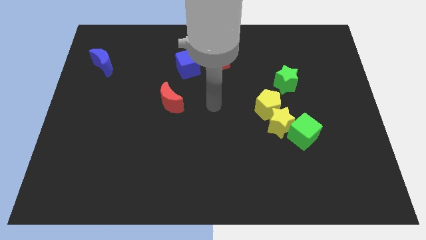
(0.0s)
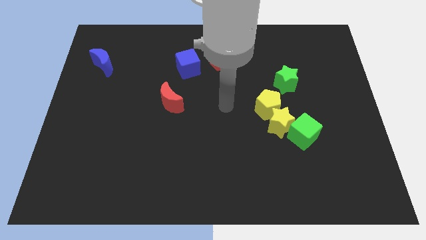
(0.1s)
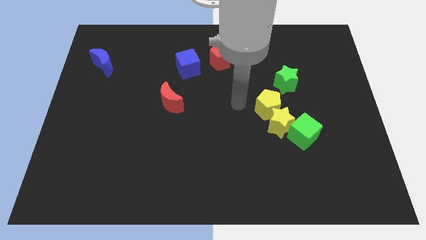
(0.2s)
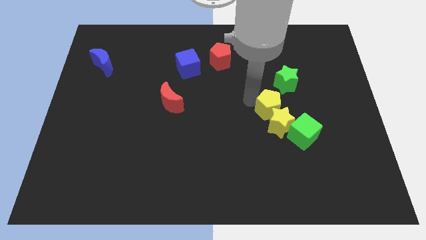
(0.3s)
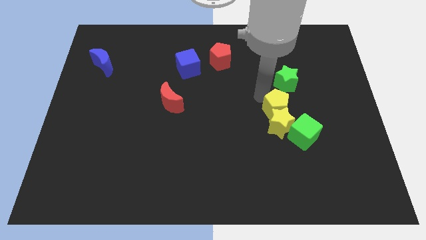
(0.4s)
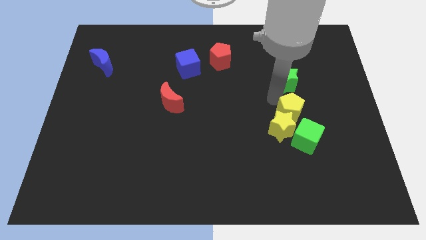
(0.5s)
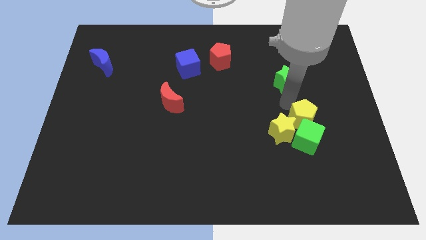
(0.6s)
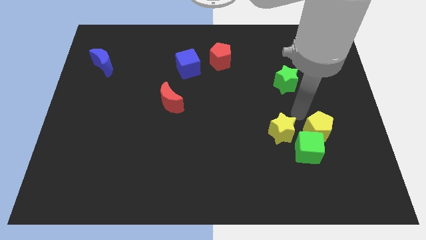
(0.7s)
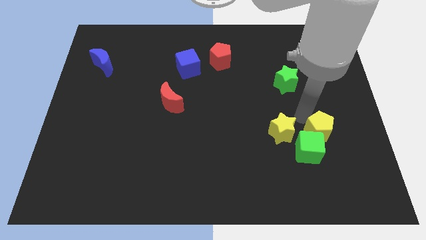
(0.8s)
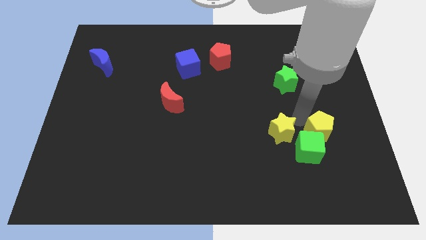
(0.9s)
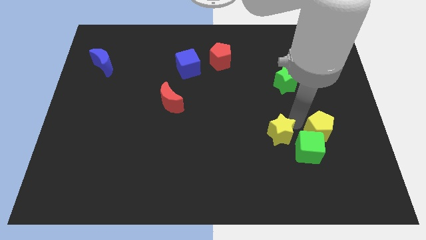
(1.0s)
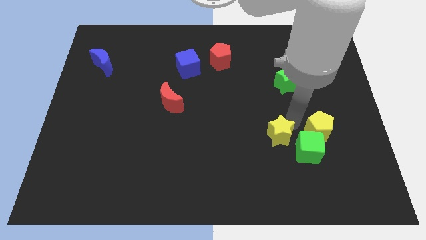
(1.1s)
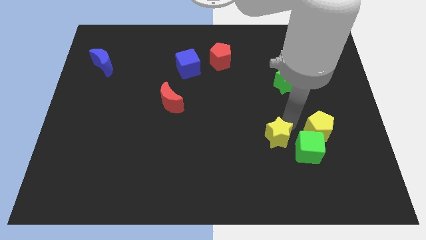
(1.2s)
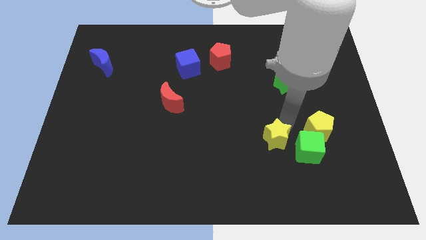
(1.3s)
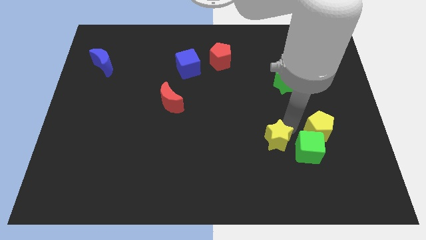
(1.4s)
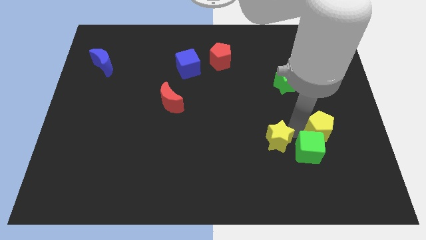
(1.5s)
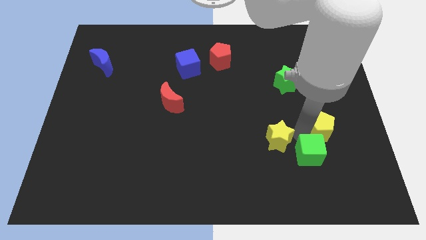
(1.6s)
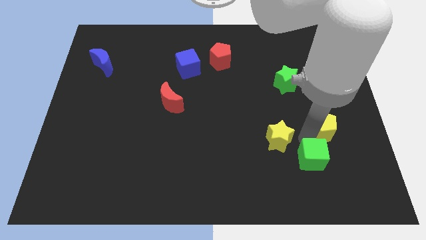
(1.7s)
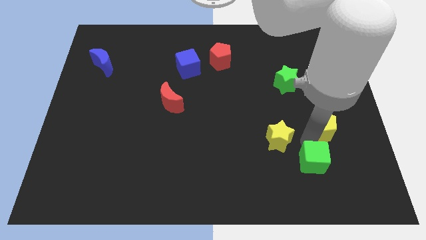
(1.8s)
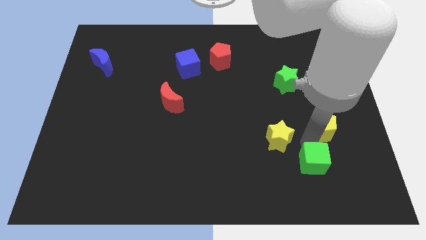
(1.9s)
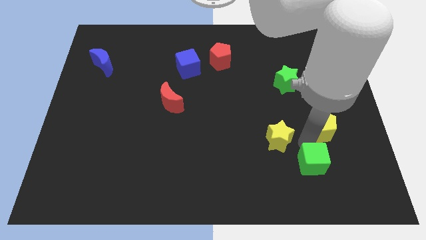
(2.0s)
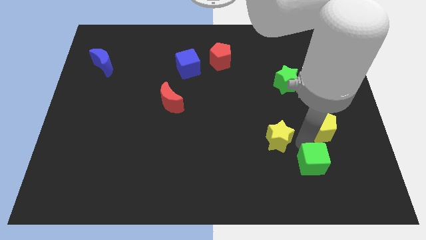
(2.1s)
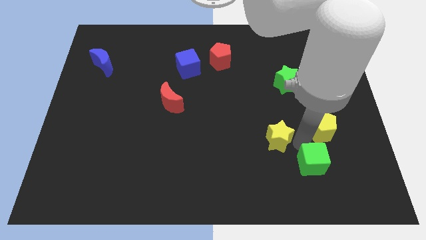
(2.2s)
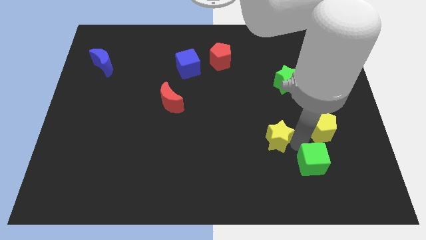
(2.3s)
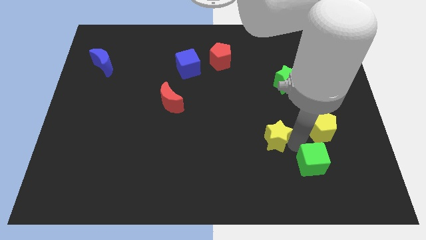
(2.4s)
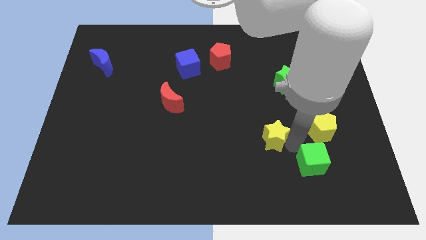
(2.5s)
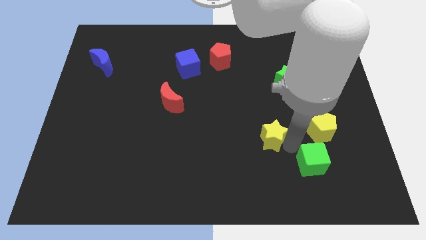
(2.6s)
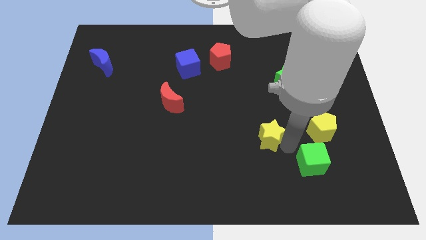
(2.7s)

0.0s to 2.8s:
separate the yellow star from the green cube and yellow pentagon

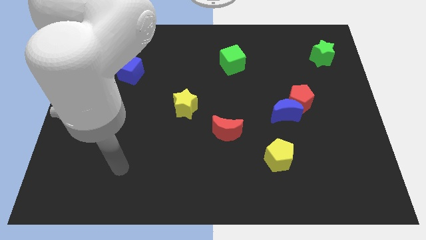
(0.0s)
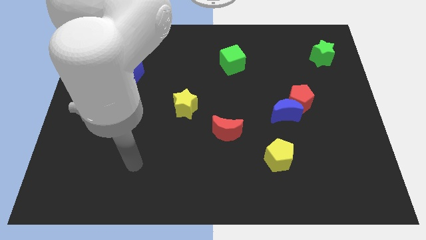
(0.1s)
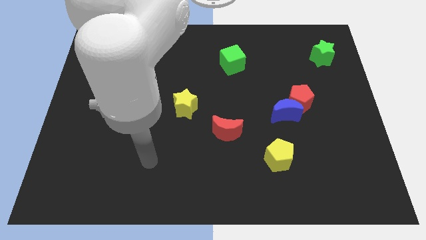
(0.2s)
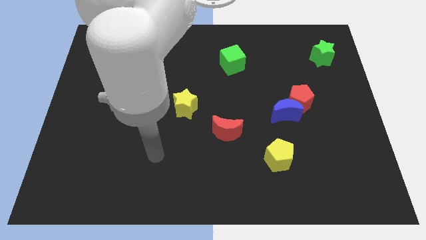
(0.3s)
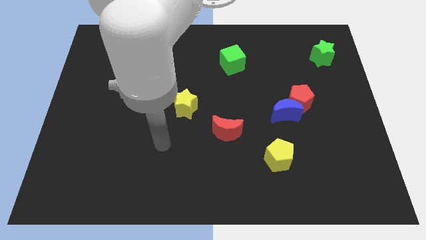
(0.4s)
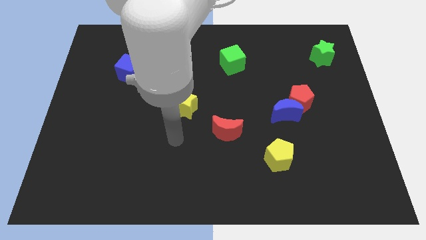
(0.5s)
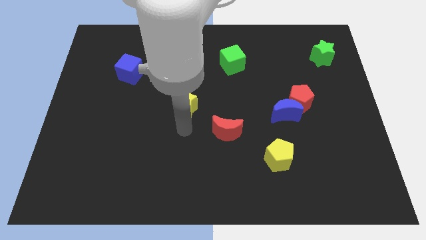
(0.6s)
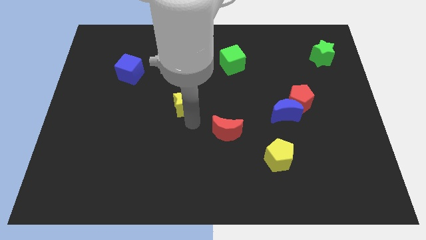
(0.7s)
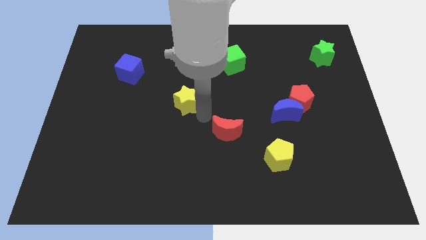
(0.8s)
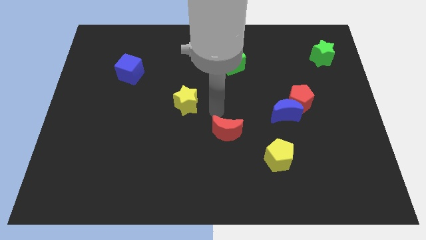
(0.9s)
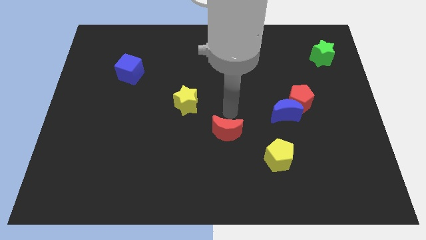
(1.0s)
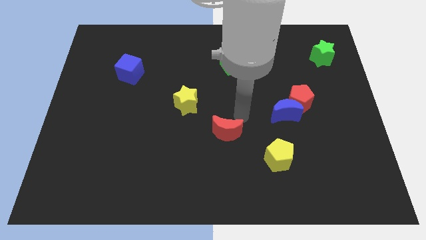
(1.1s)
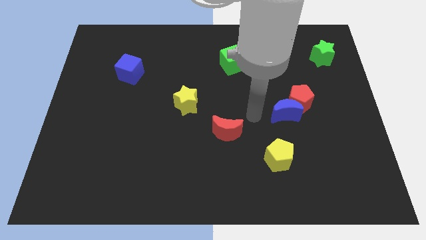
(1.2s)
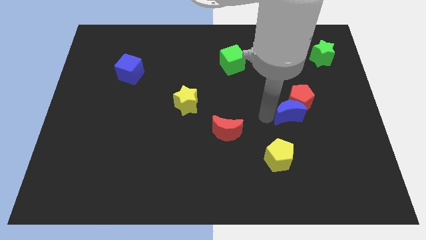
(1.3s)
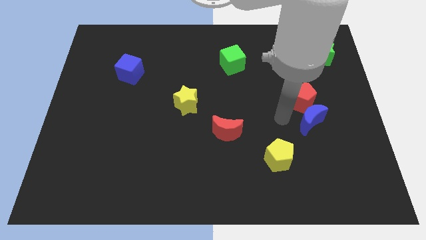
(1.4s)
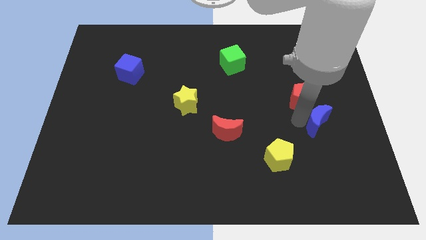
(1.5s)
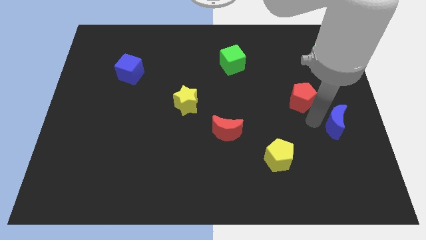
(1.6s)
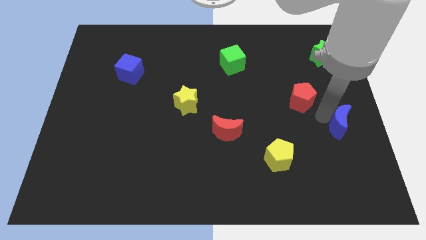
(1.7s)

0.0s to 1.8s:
separate the red pentagon from the blue moon

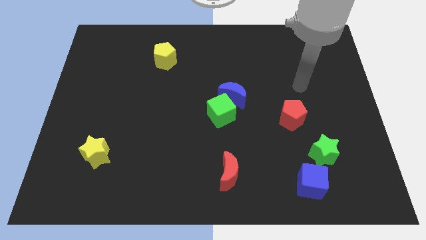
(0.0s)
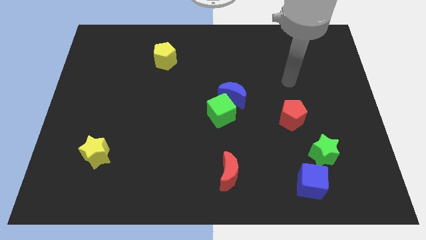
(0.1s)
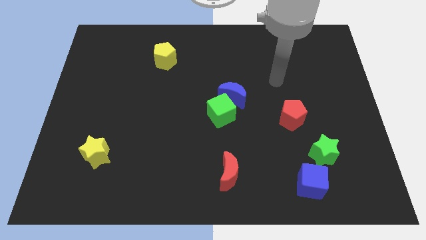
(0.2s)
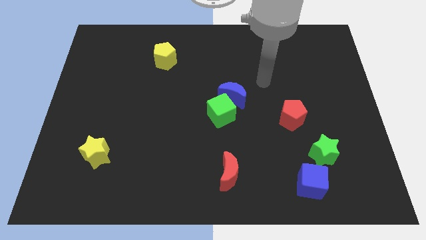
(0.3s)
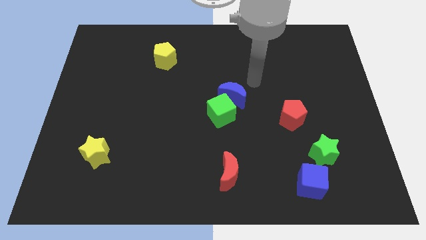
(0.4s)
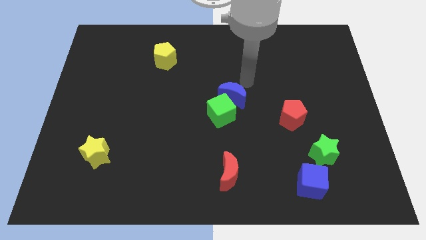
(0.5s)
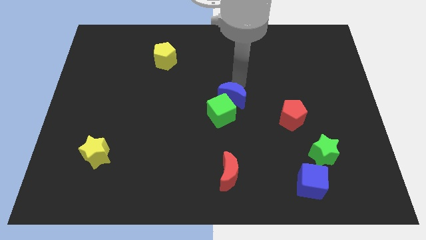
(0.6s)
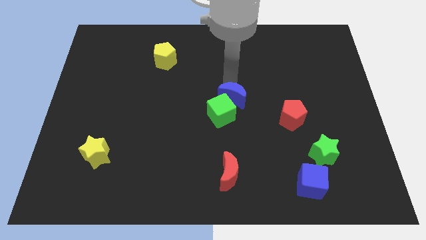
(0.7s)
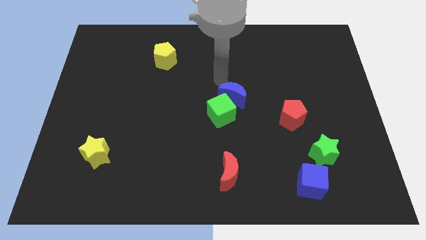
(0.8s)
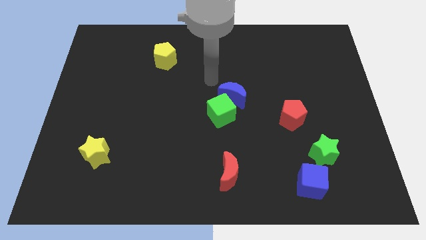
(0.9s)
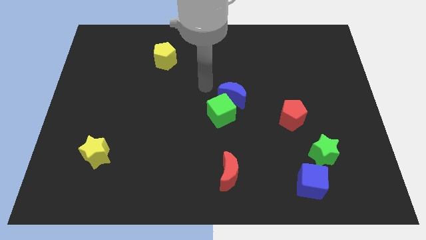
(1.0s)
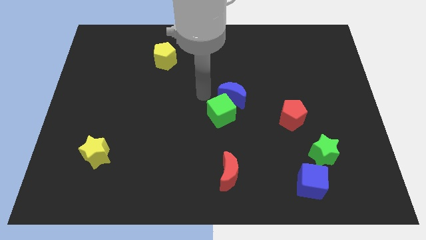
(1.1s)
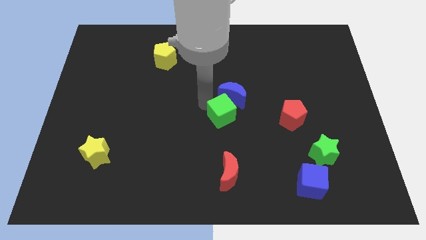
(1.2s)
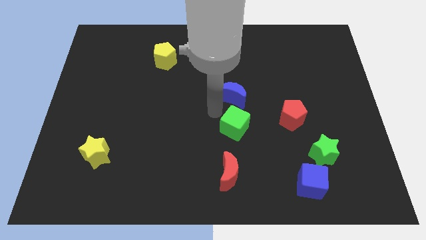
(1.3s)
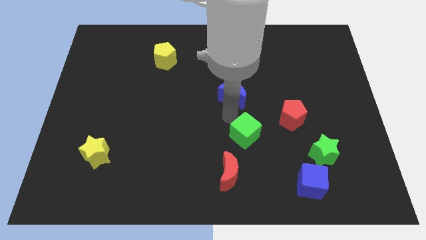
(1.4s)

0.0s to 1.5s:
separate the blue moon from the green cube

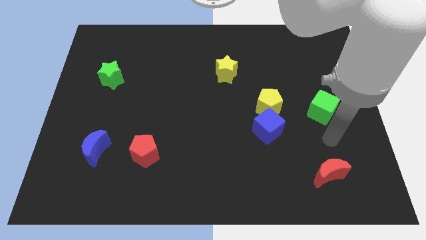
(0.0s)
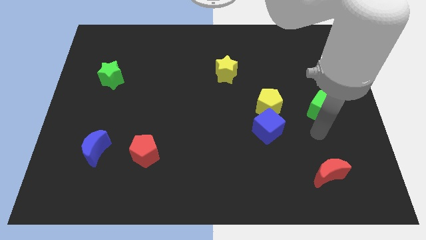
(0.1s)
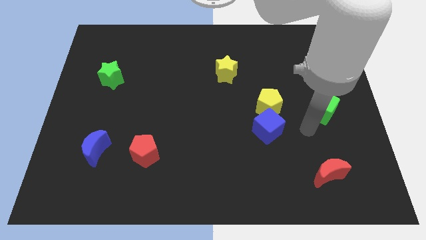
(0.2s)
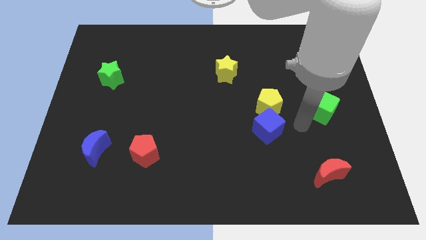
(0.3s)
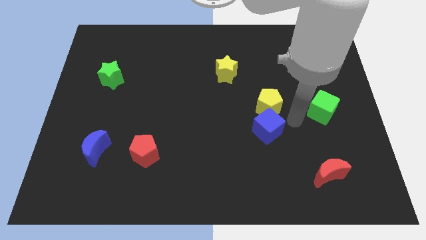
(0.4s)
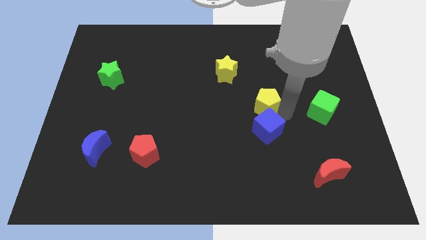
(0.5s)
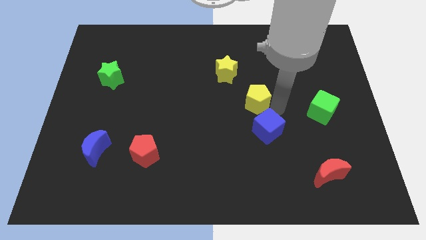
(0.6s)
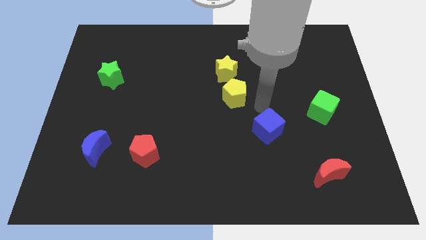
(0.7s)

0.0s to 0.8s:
move the blue cube away from the yellow pentagon

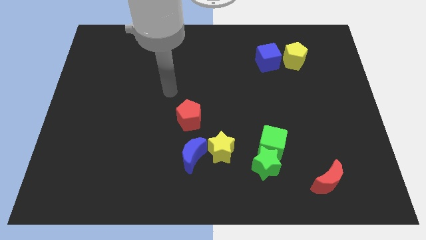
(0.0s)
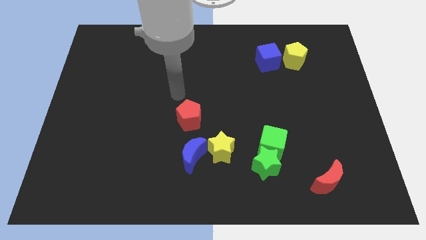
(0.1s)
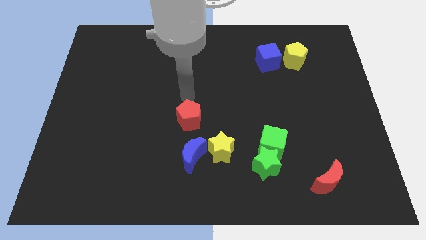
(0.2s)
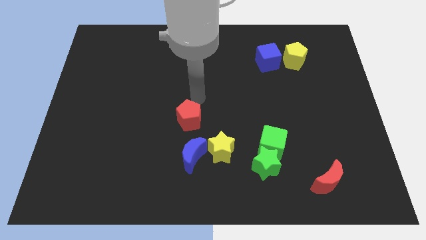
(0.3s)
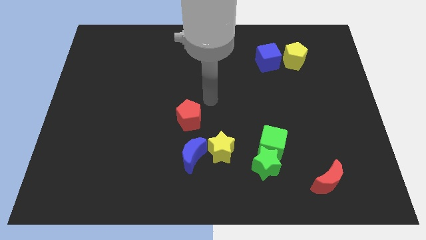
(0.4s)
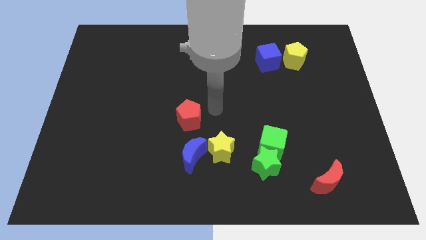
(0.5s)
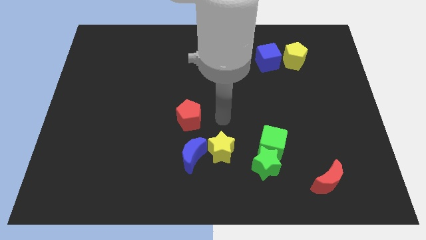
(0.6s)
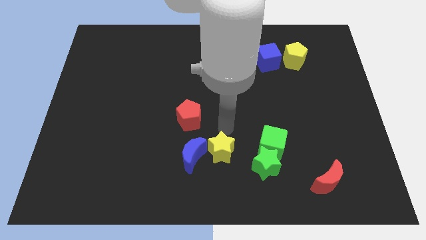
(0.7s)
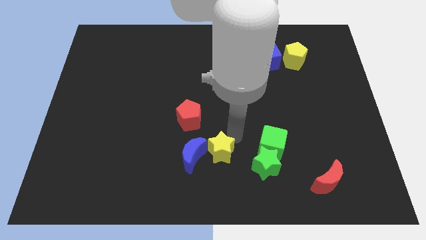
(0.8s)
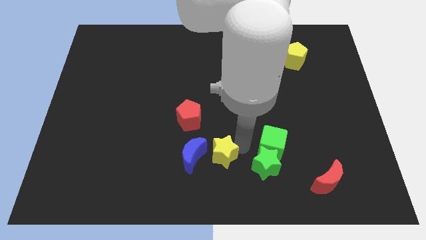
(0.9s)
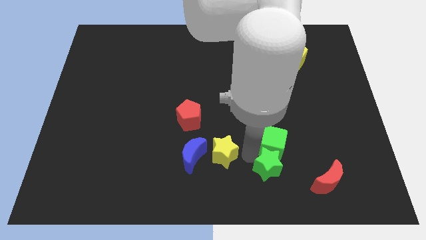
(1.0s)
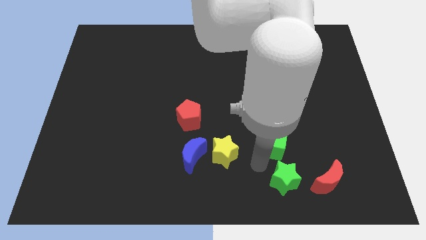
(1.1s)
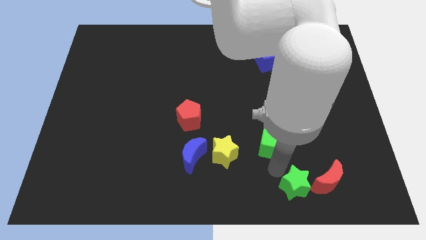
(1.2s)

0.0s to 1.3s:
move the green cube away from the green star

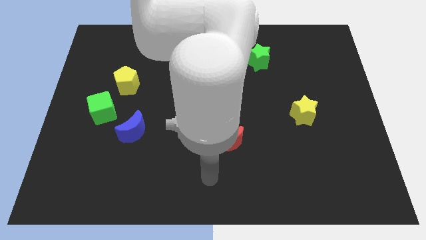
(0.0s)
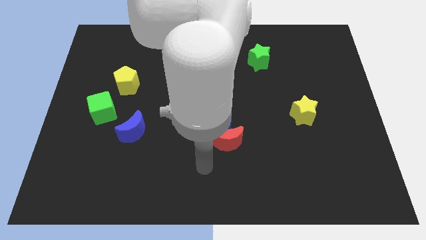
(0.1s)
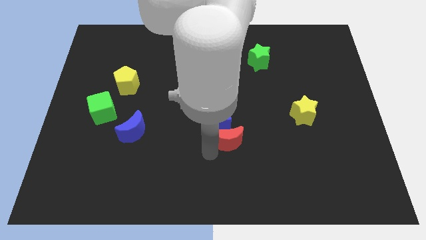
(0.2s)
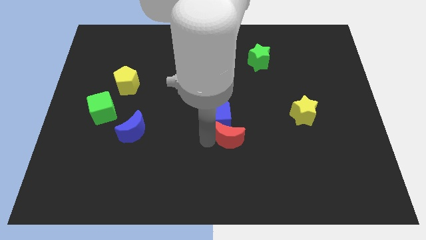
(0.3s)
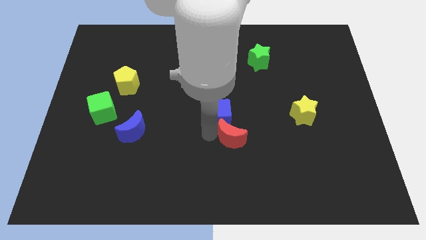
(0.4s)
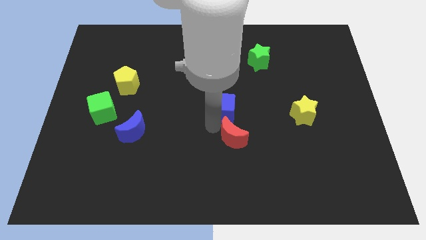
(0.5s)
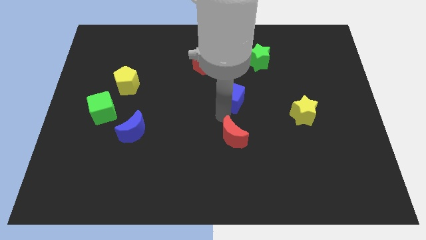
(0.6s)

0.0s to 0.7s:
move the red moon away from the blue cube

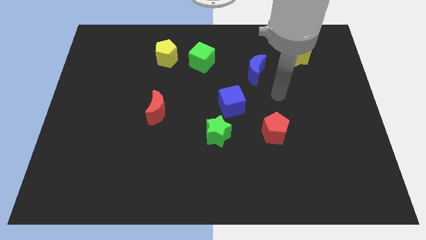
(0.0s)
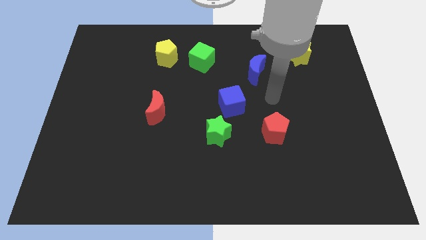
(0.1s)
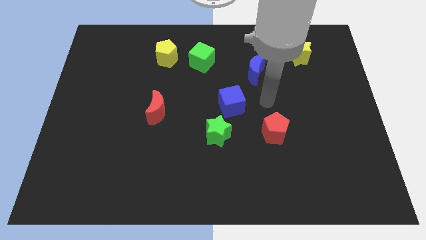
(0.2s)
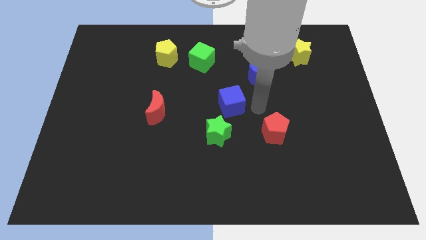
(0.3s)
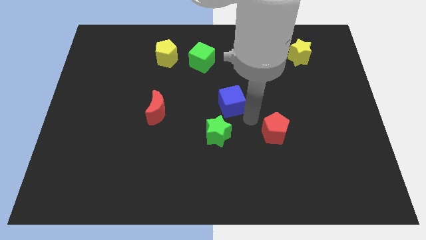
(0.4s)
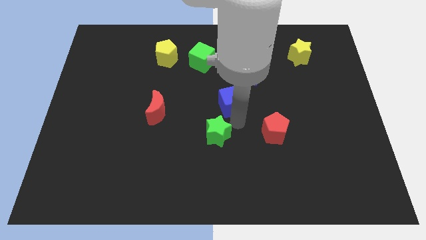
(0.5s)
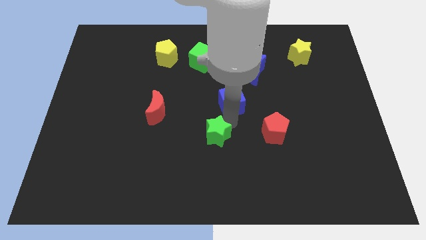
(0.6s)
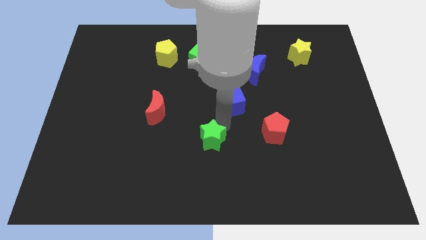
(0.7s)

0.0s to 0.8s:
separate the blue cube from the green star
